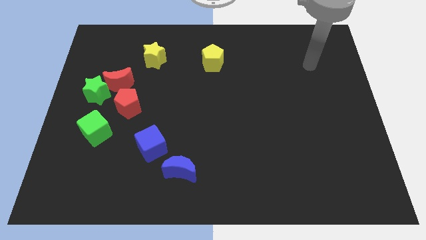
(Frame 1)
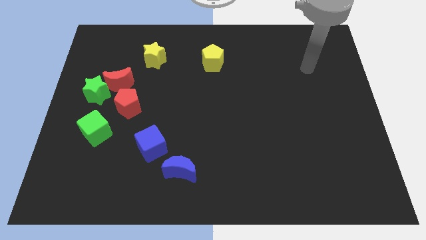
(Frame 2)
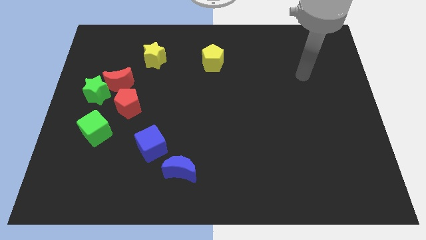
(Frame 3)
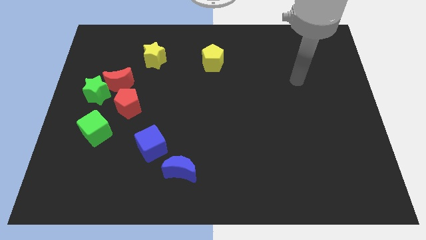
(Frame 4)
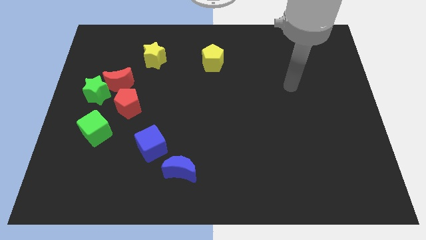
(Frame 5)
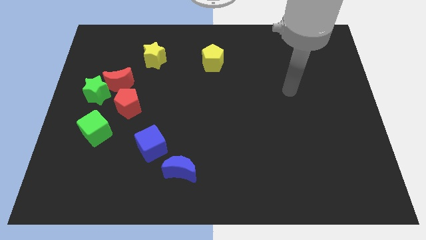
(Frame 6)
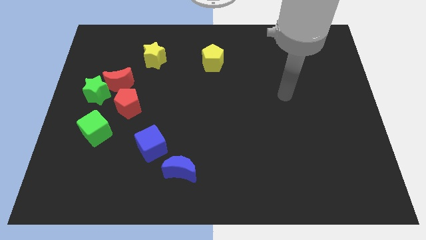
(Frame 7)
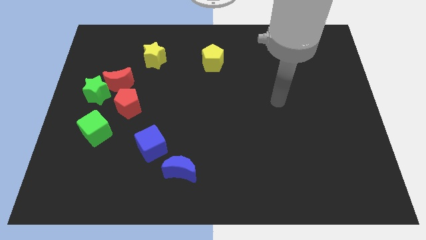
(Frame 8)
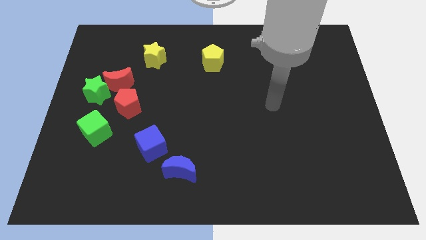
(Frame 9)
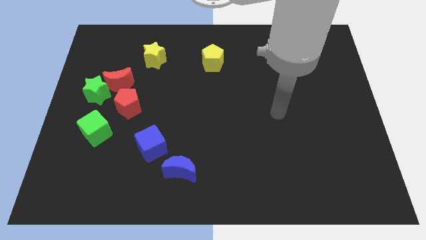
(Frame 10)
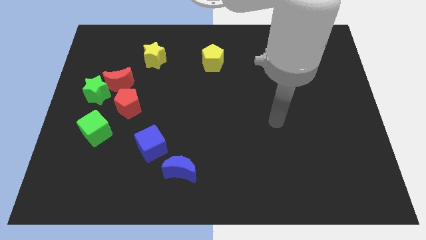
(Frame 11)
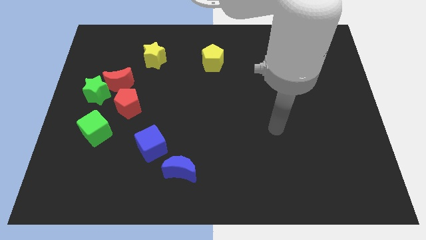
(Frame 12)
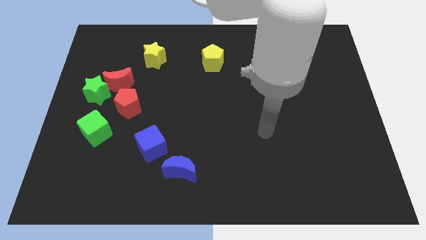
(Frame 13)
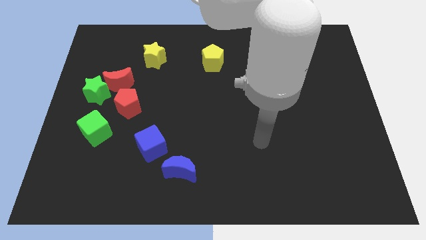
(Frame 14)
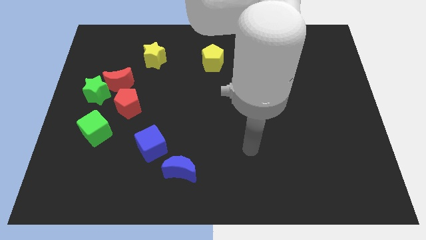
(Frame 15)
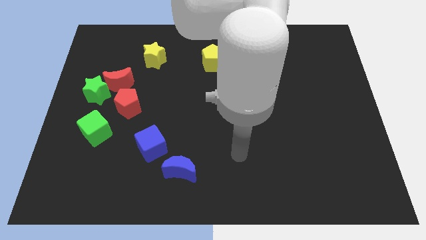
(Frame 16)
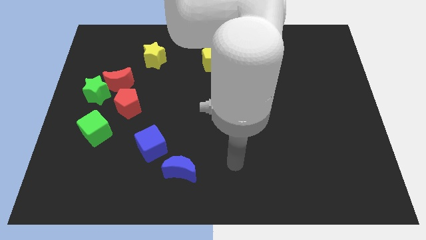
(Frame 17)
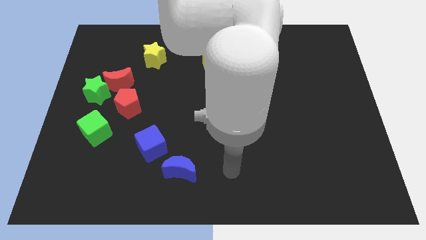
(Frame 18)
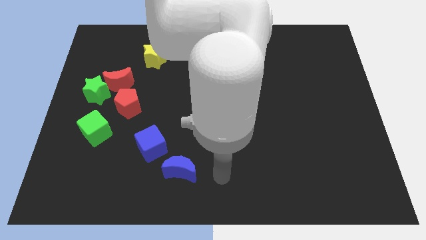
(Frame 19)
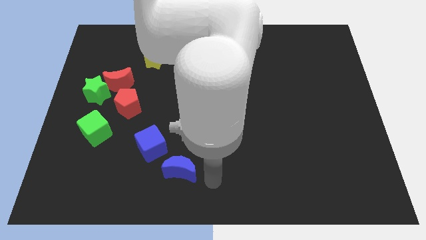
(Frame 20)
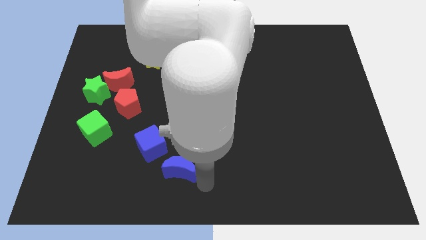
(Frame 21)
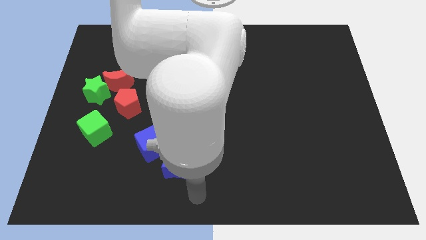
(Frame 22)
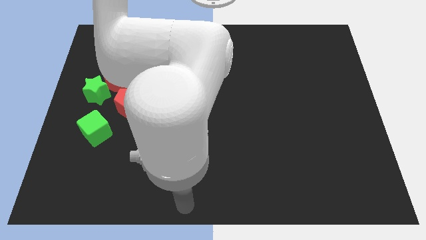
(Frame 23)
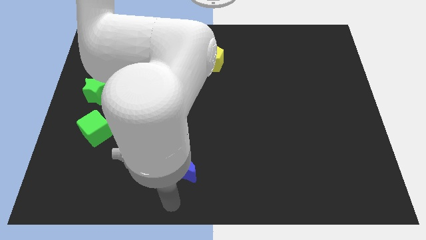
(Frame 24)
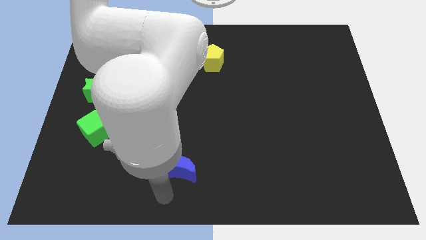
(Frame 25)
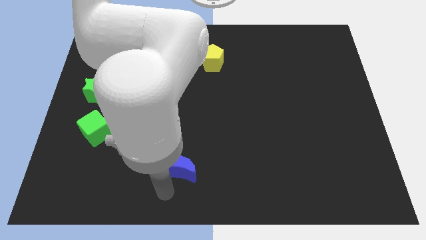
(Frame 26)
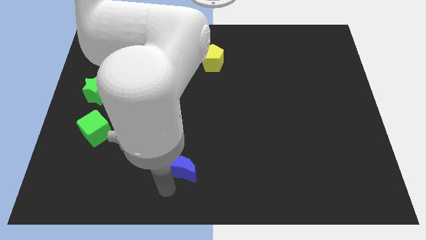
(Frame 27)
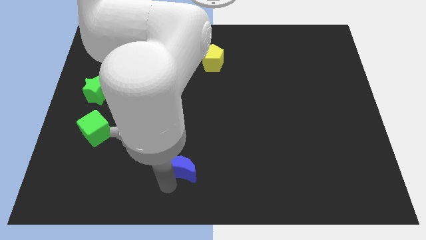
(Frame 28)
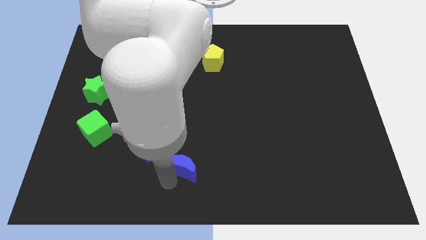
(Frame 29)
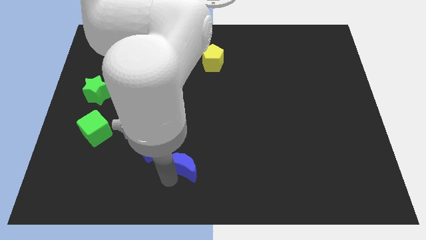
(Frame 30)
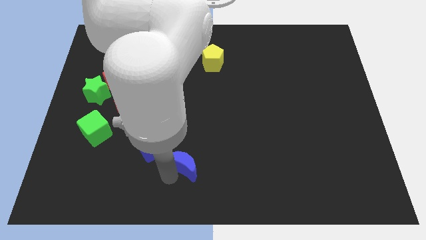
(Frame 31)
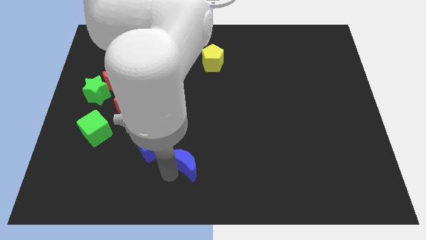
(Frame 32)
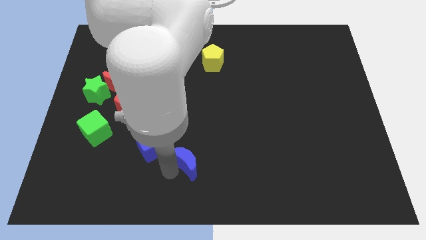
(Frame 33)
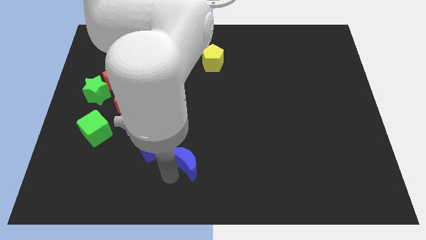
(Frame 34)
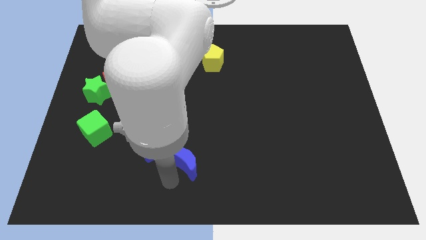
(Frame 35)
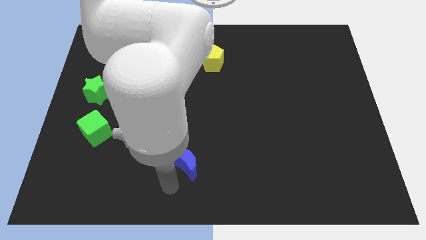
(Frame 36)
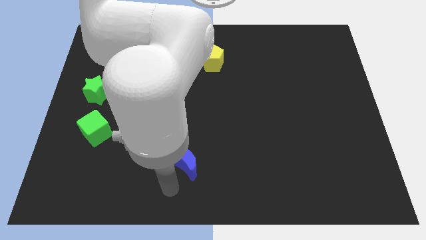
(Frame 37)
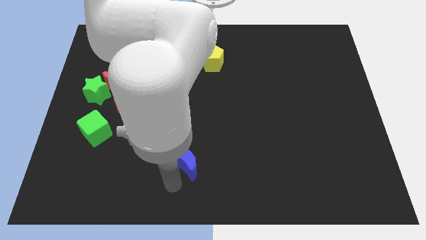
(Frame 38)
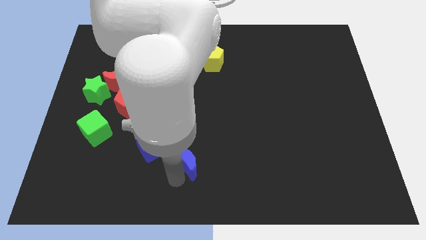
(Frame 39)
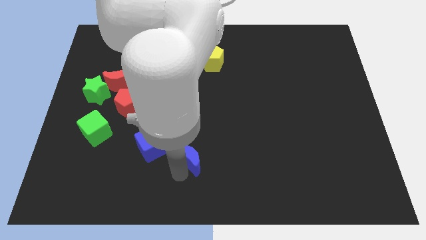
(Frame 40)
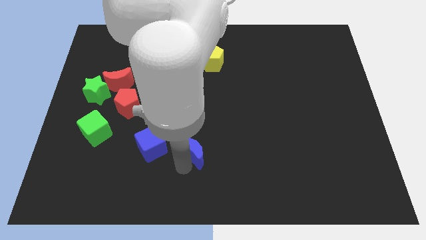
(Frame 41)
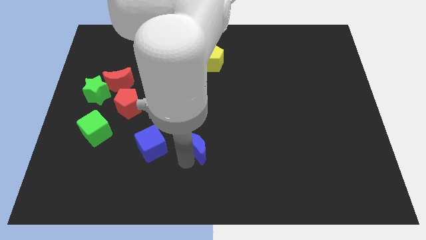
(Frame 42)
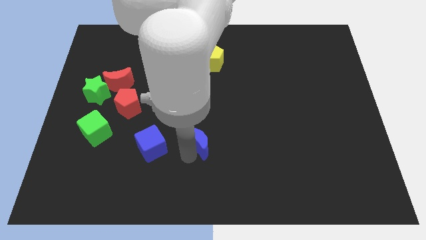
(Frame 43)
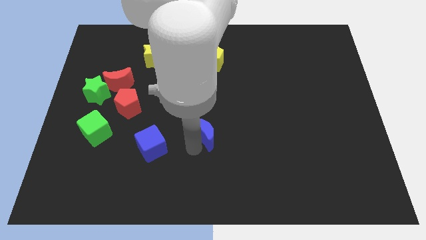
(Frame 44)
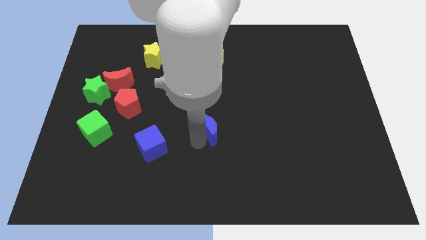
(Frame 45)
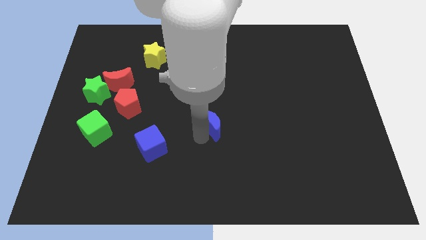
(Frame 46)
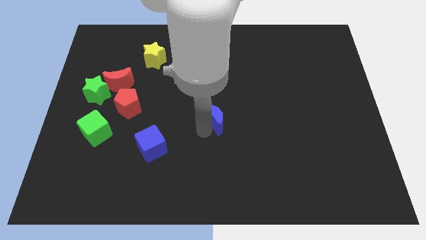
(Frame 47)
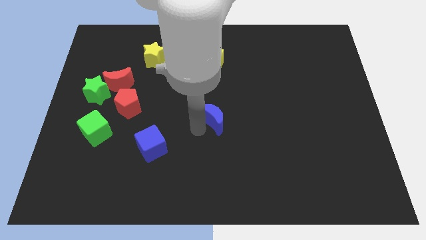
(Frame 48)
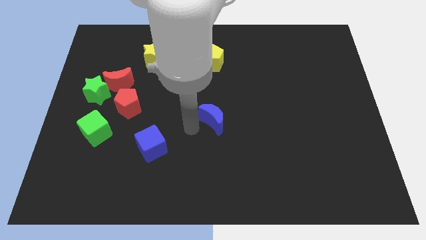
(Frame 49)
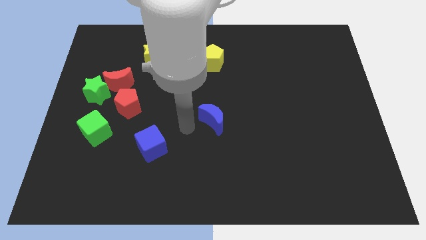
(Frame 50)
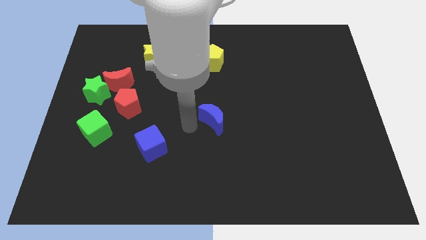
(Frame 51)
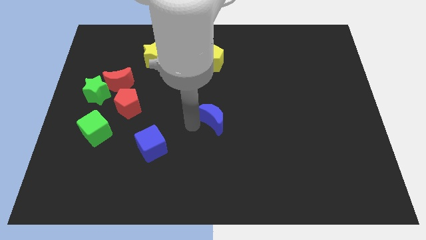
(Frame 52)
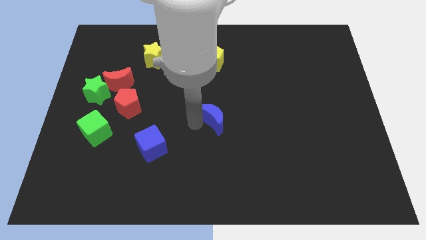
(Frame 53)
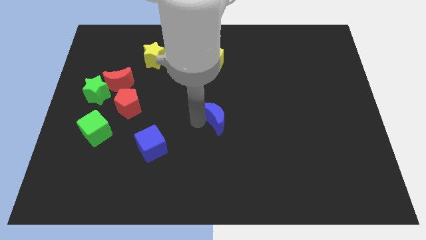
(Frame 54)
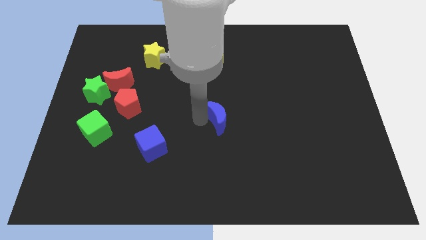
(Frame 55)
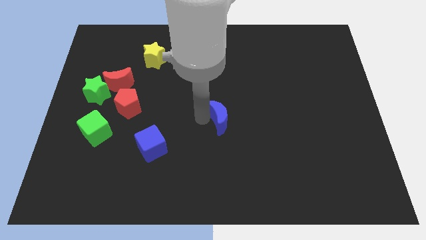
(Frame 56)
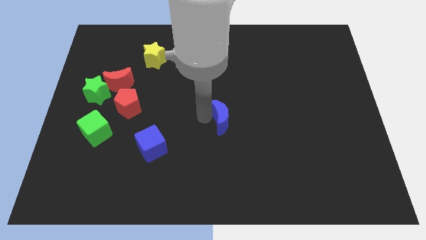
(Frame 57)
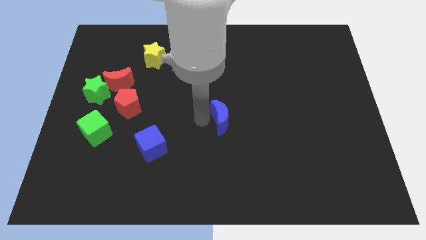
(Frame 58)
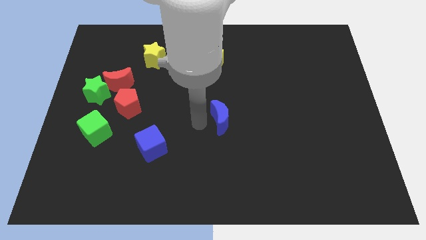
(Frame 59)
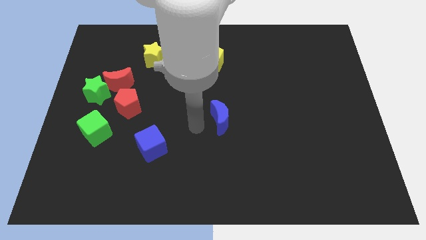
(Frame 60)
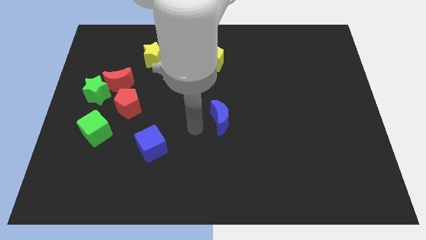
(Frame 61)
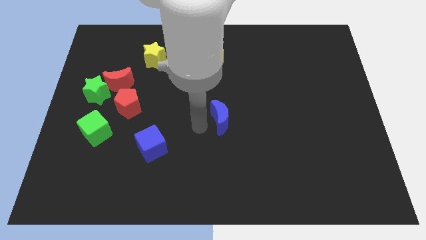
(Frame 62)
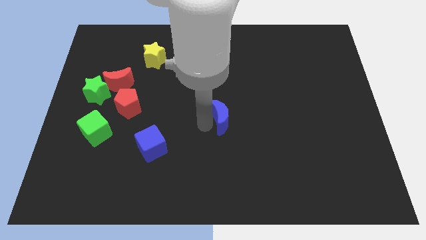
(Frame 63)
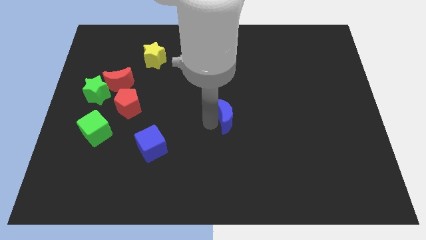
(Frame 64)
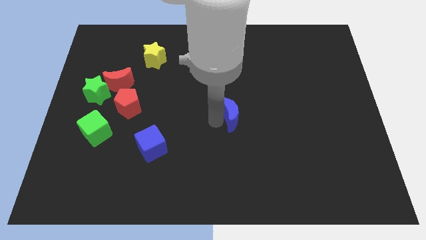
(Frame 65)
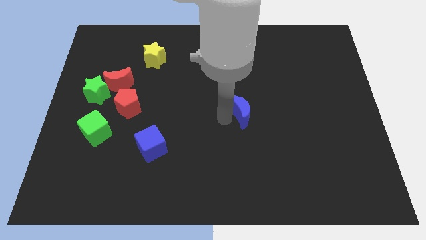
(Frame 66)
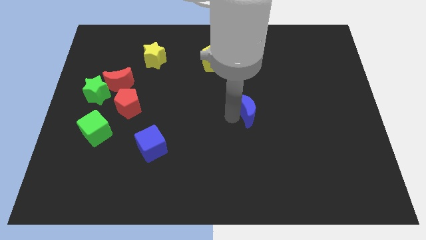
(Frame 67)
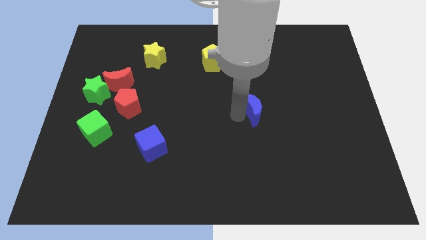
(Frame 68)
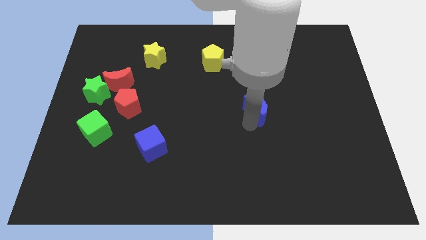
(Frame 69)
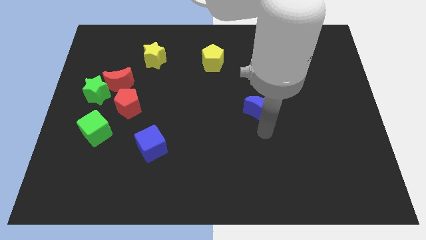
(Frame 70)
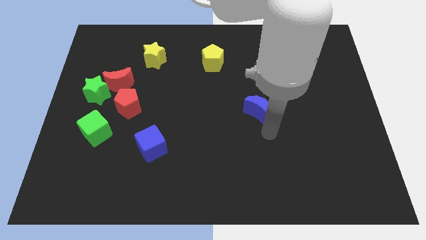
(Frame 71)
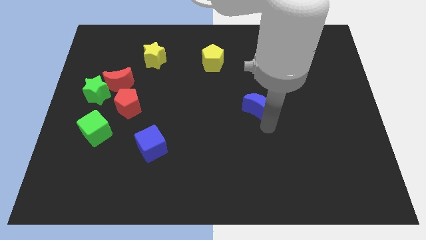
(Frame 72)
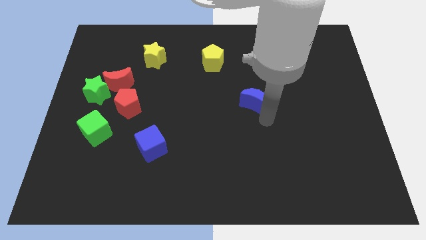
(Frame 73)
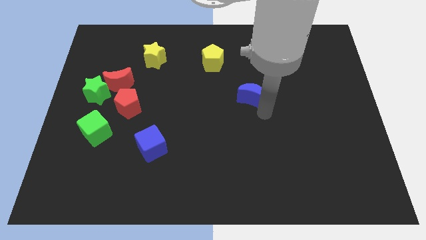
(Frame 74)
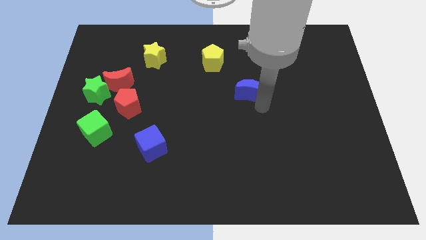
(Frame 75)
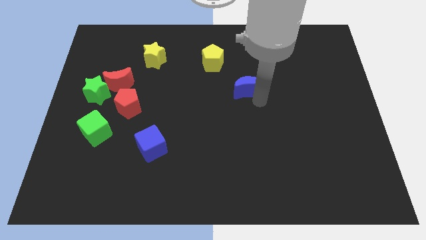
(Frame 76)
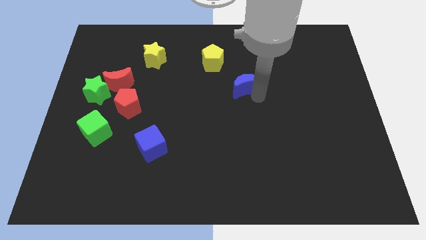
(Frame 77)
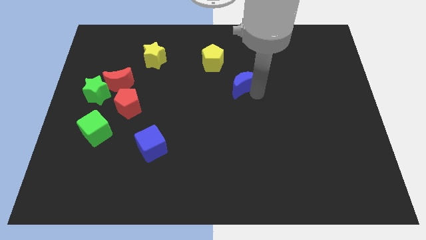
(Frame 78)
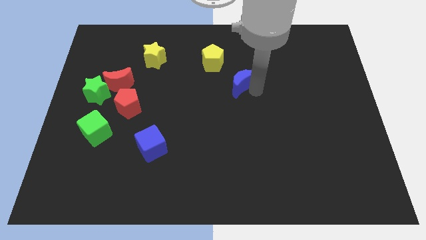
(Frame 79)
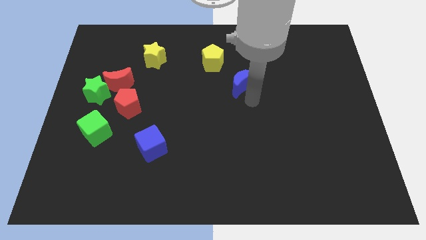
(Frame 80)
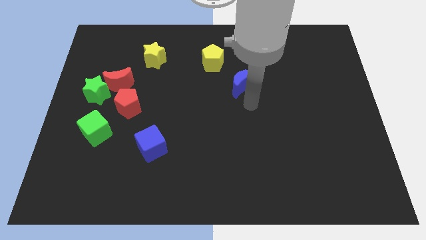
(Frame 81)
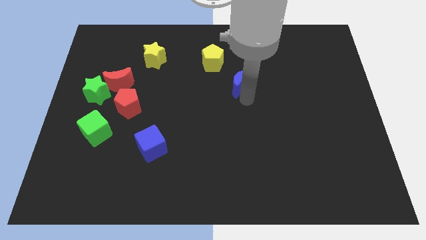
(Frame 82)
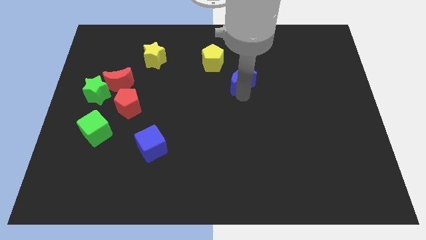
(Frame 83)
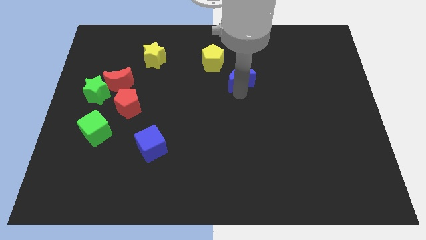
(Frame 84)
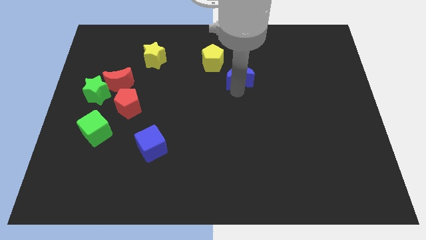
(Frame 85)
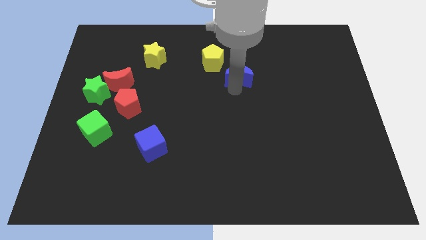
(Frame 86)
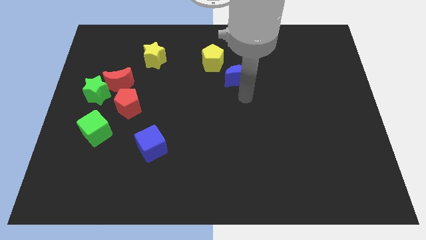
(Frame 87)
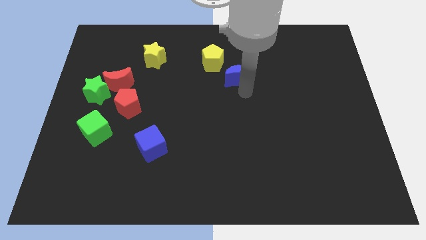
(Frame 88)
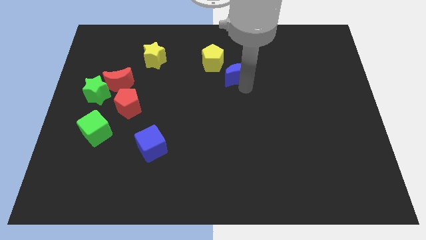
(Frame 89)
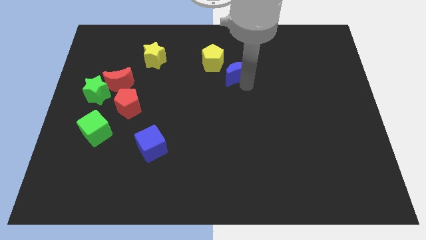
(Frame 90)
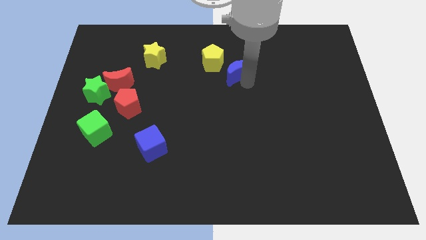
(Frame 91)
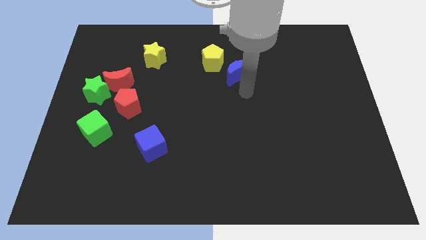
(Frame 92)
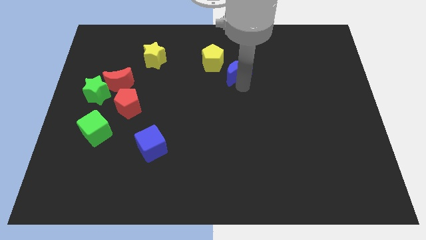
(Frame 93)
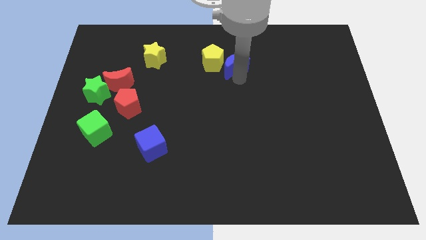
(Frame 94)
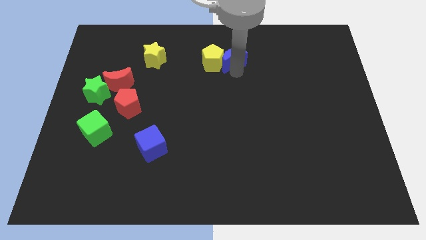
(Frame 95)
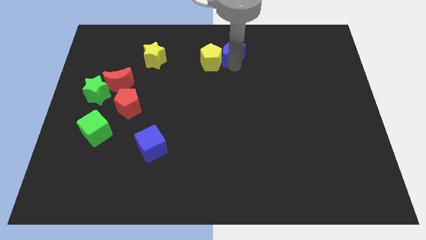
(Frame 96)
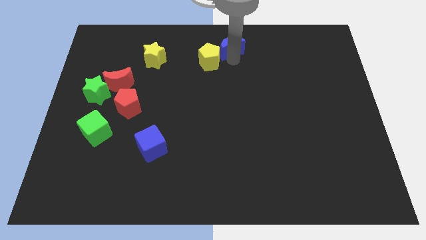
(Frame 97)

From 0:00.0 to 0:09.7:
move the blue moon to the top
